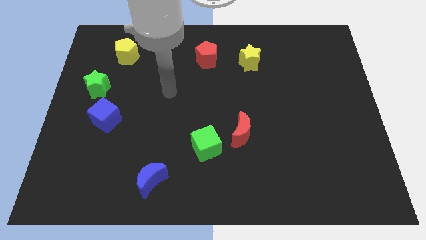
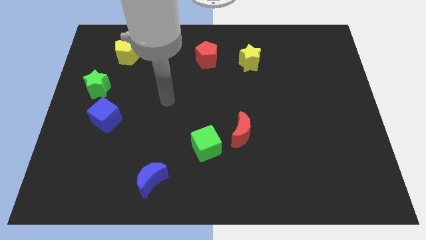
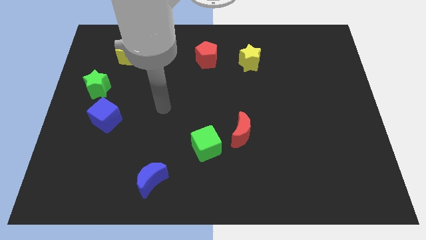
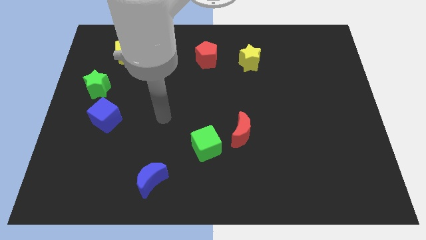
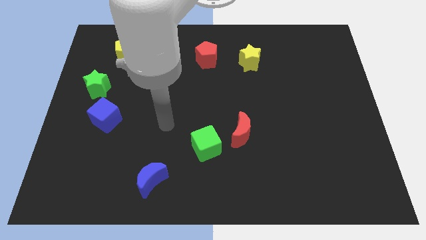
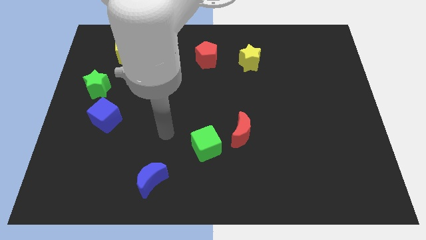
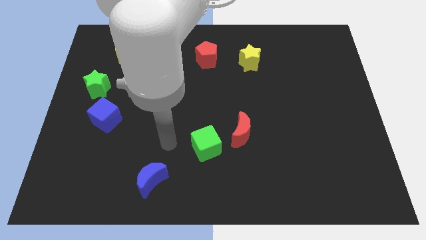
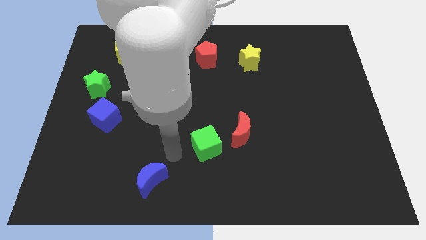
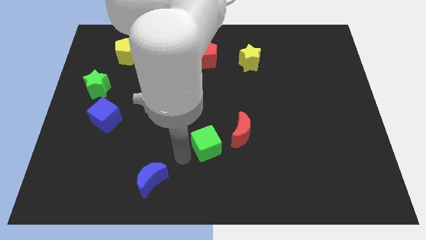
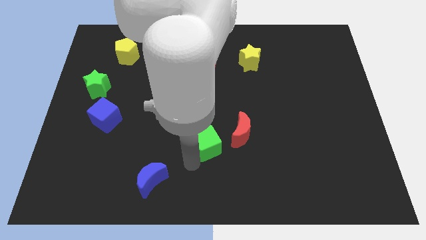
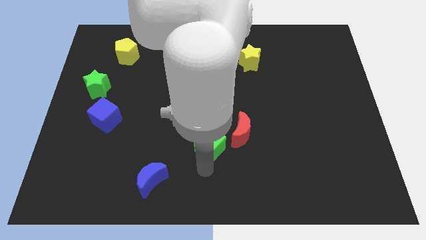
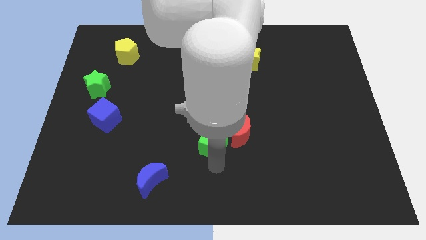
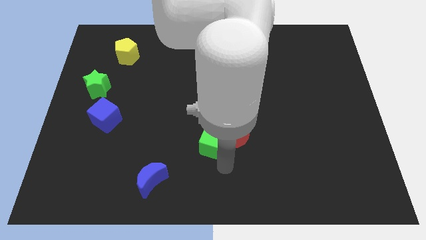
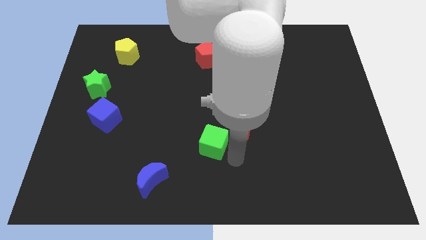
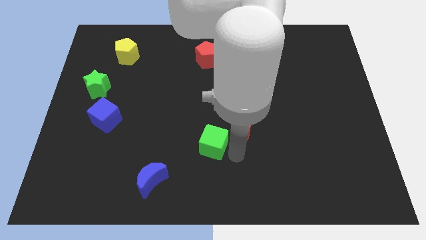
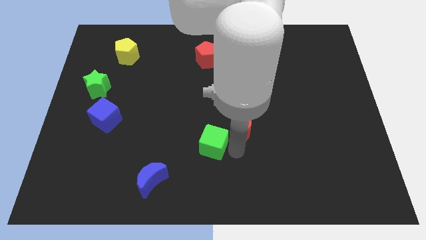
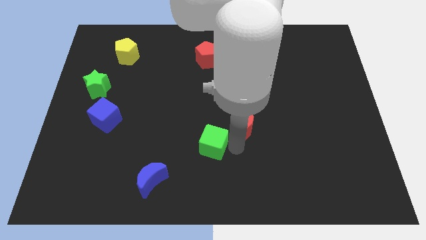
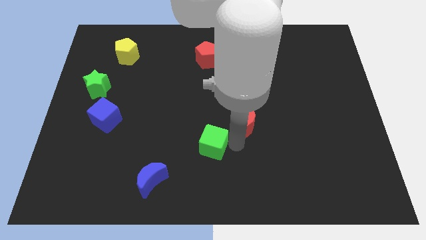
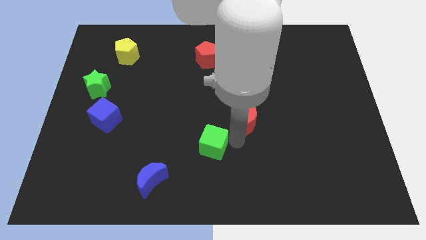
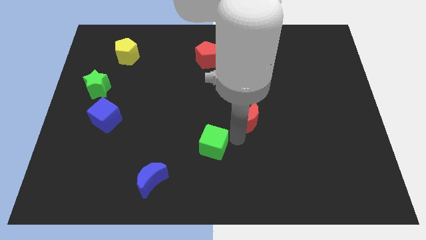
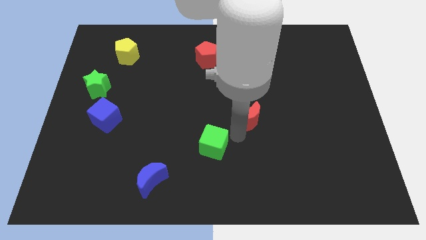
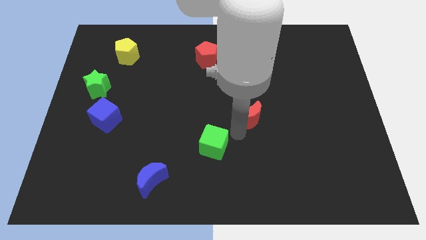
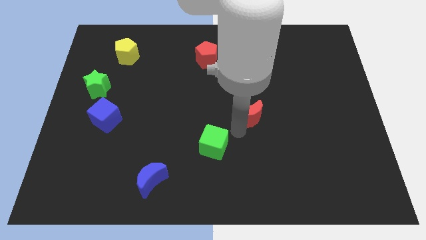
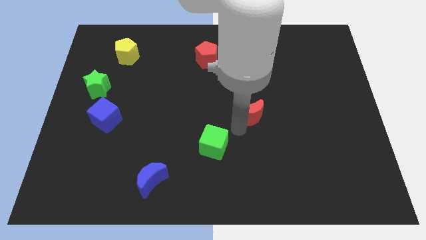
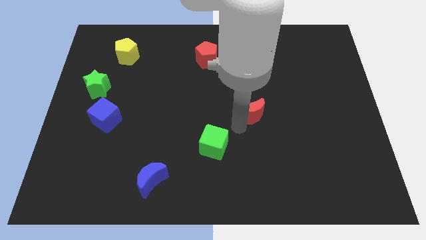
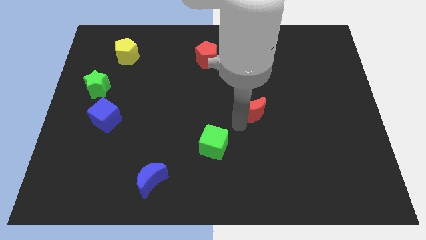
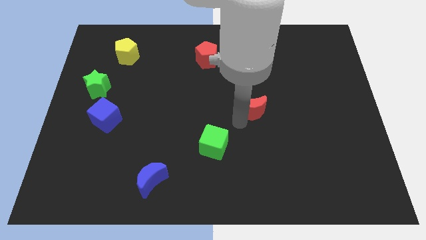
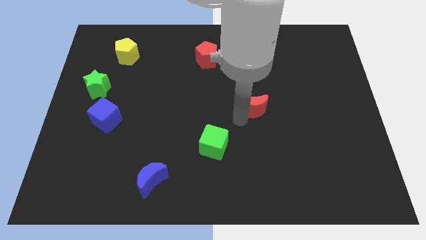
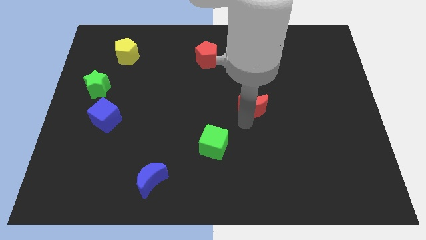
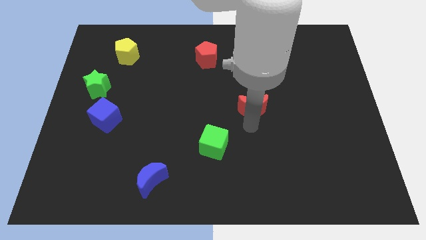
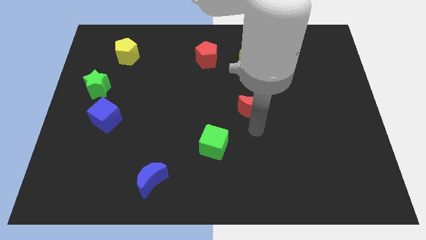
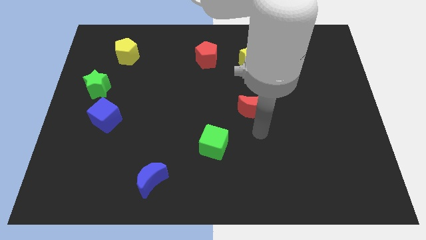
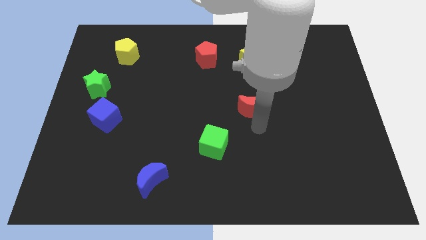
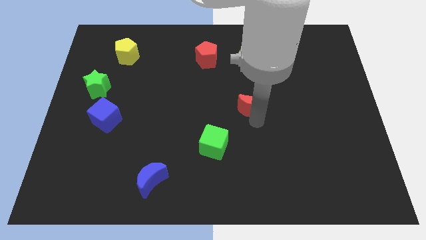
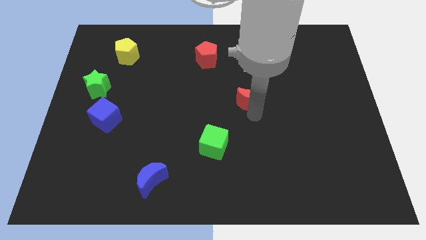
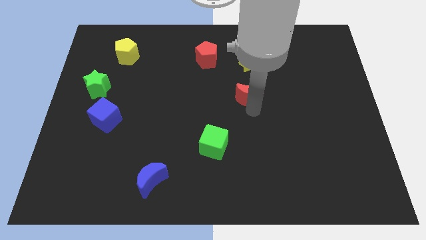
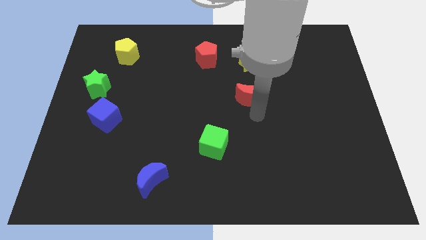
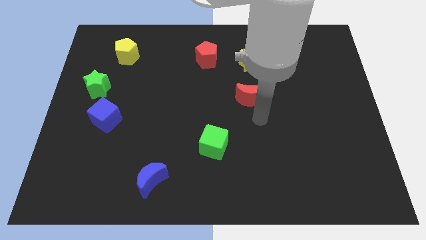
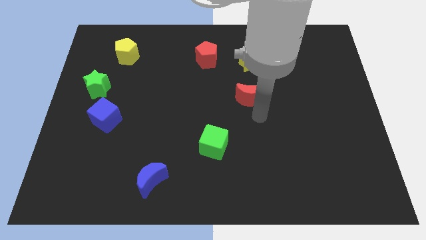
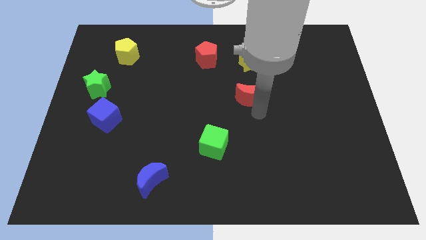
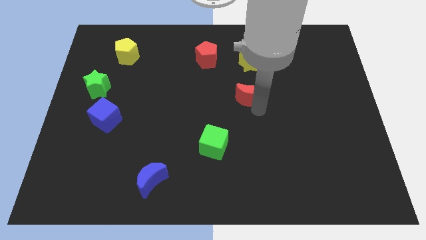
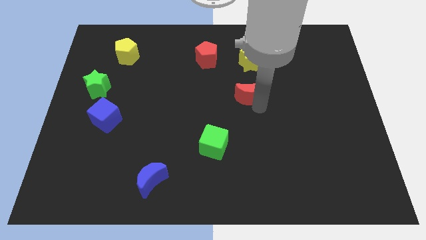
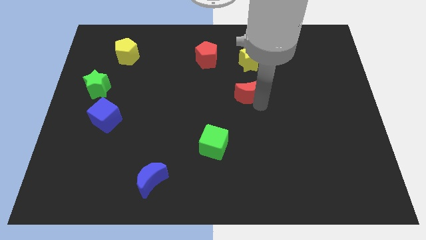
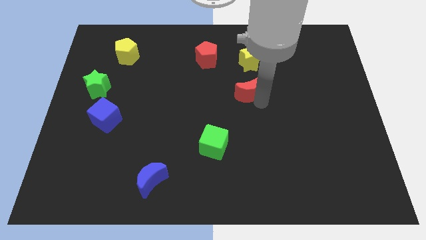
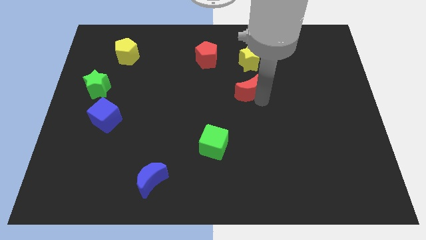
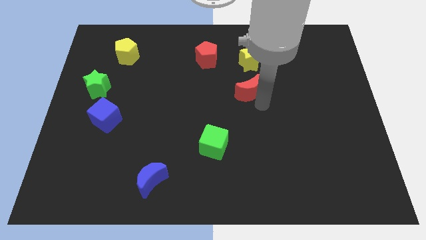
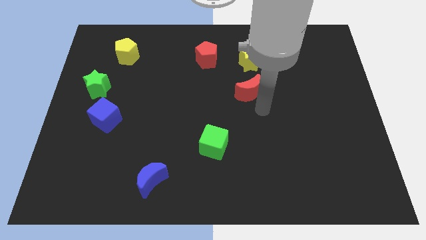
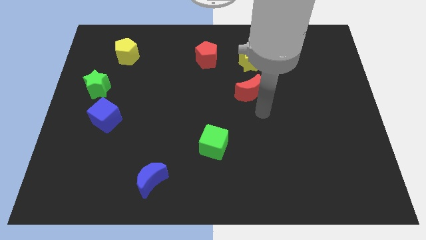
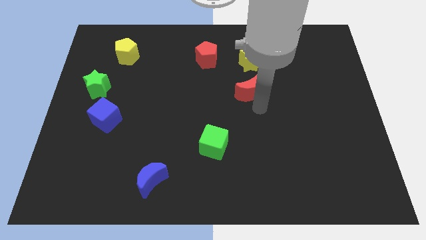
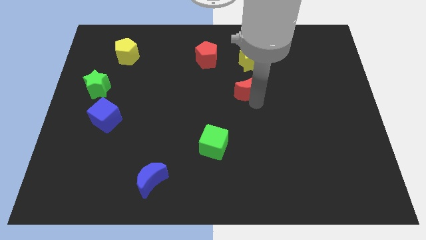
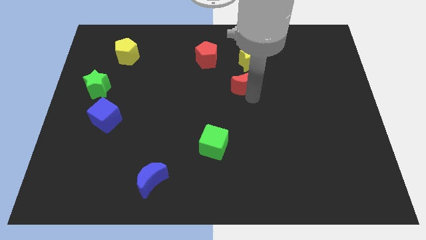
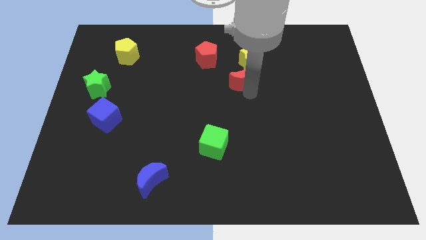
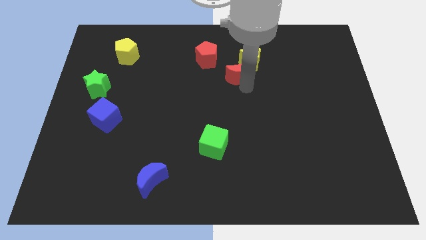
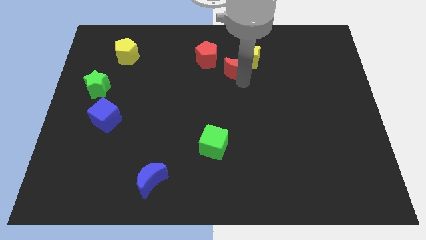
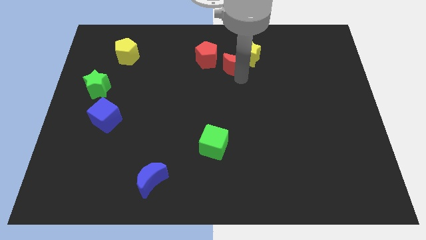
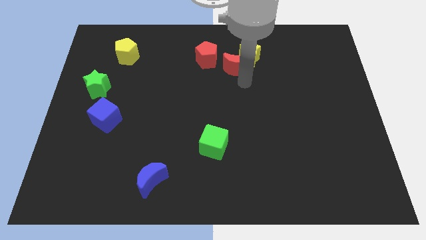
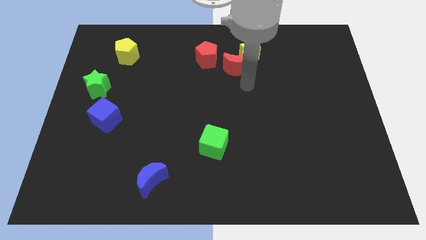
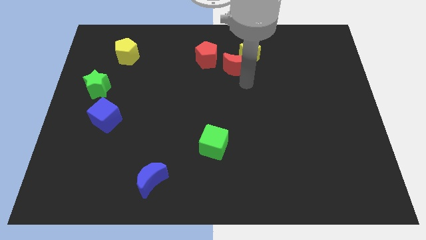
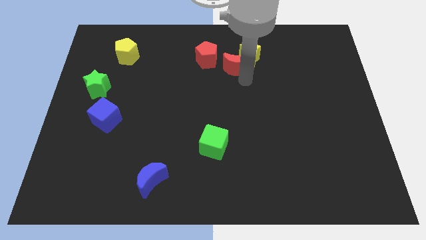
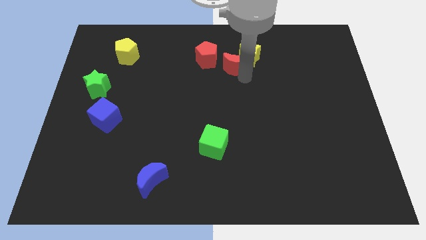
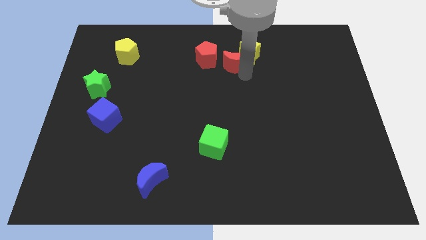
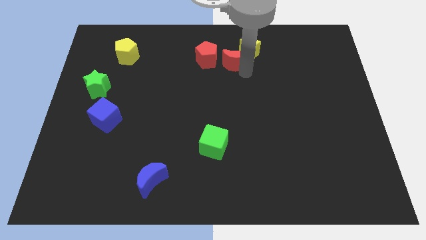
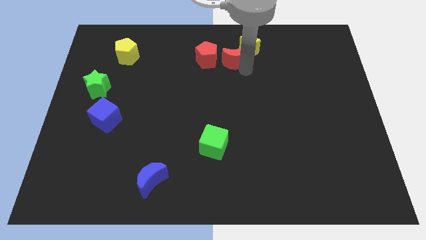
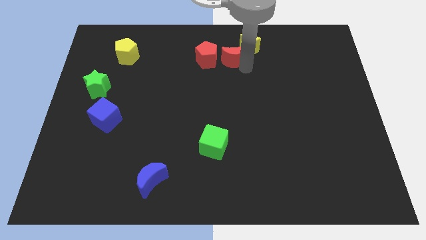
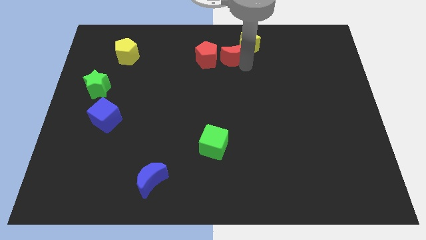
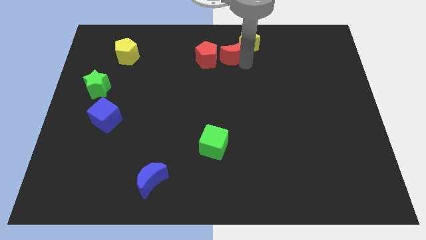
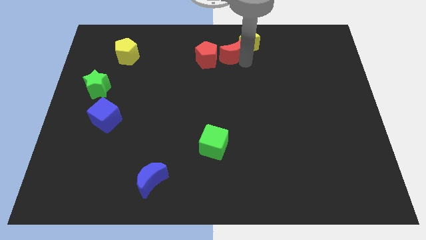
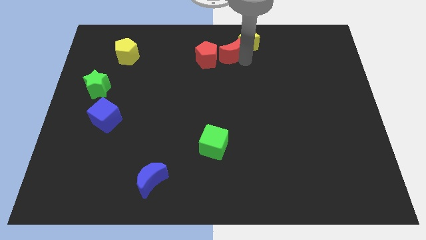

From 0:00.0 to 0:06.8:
put the red moon to the top
